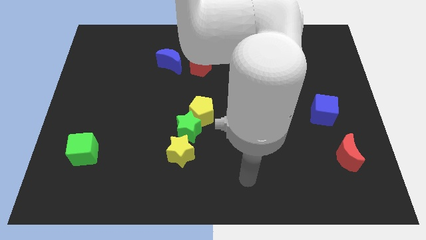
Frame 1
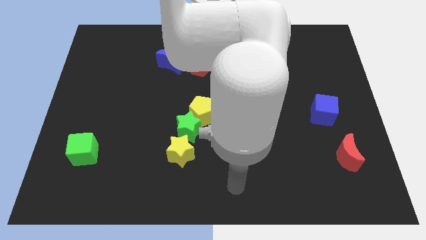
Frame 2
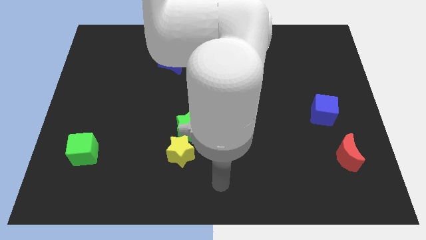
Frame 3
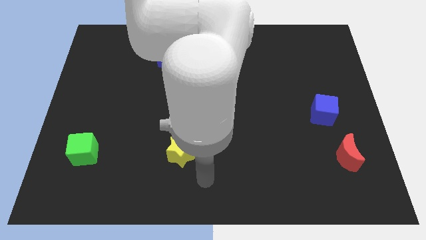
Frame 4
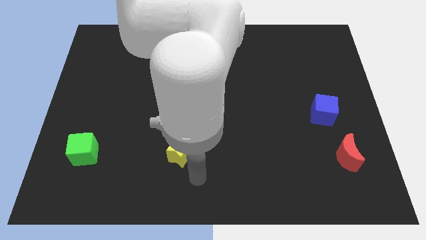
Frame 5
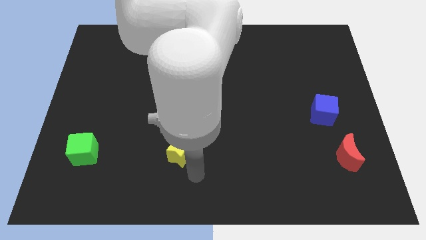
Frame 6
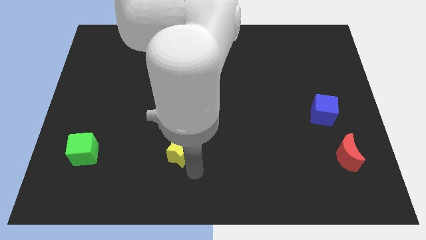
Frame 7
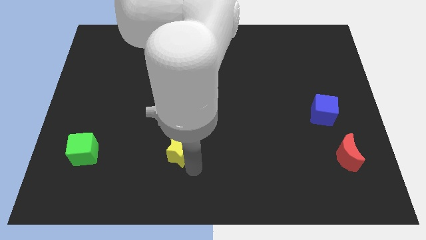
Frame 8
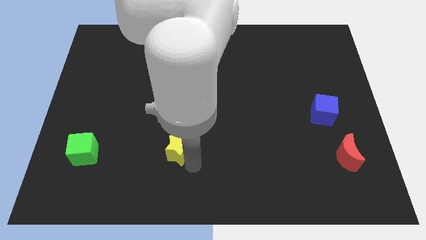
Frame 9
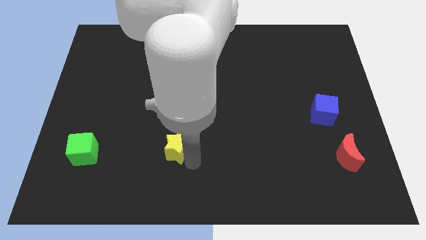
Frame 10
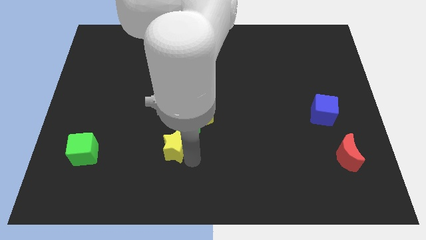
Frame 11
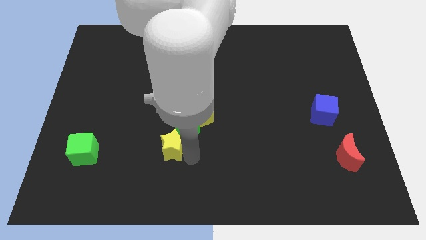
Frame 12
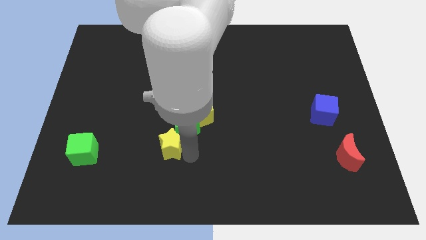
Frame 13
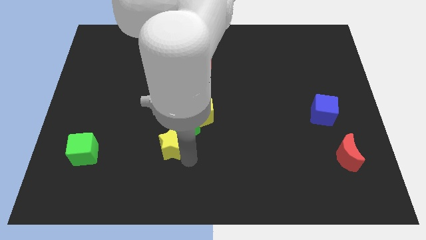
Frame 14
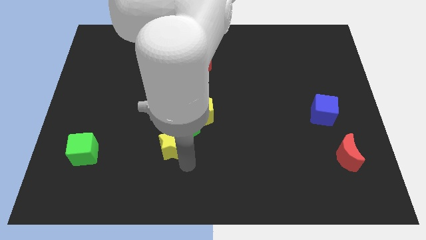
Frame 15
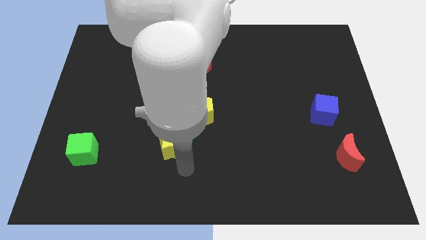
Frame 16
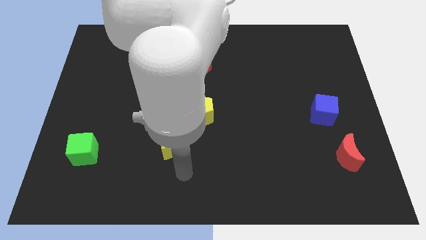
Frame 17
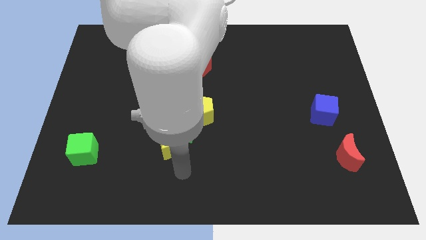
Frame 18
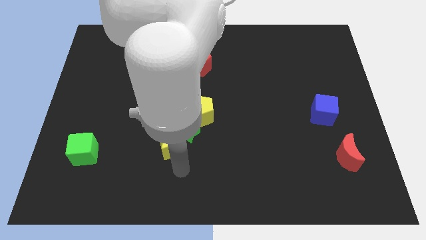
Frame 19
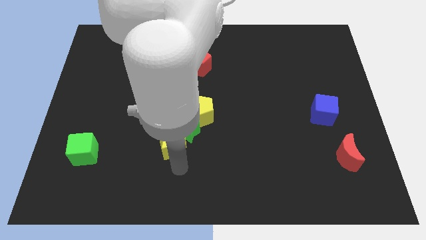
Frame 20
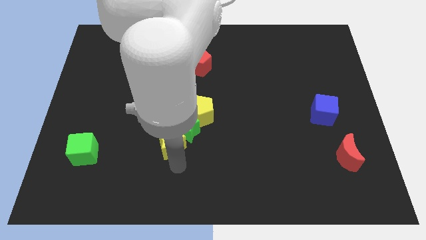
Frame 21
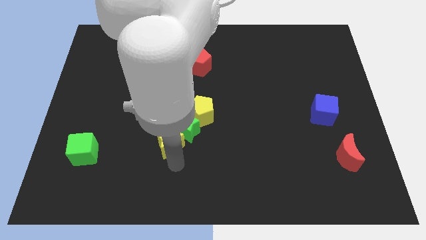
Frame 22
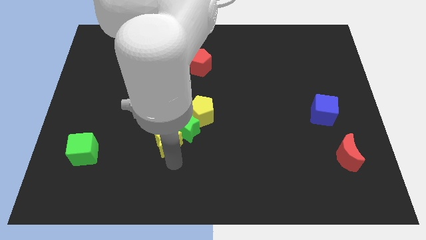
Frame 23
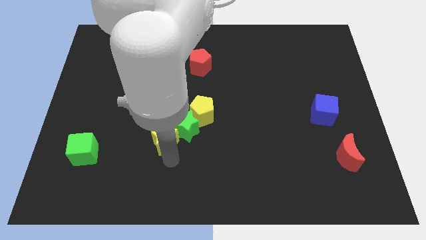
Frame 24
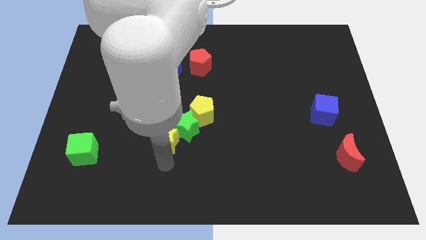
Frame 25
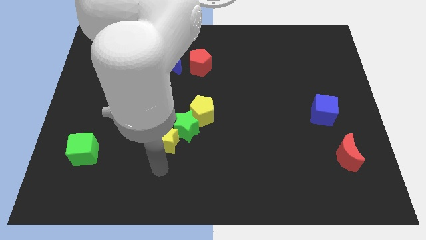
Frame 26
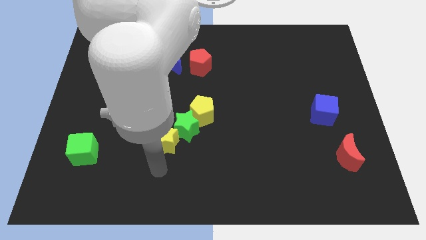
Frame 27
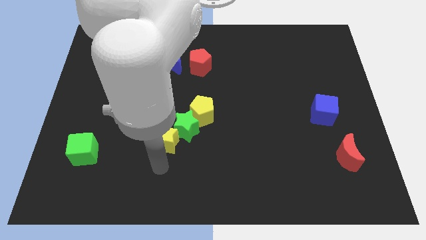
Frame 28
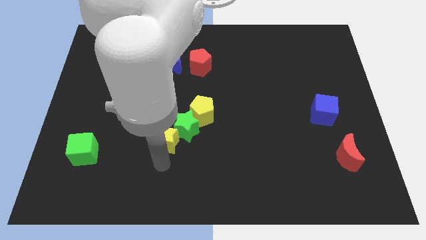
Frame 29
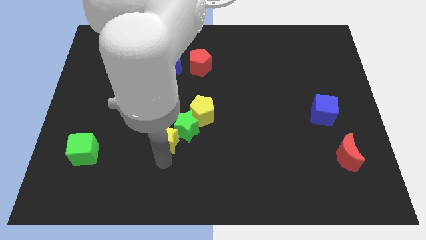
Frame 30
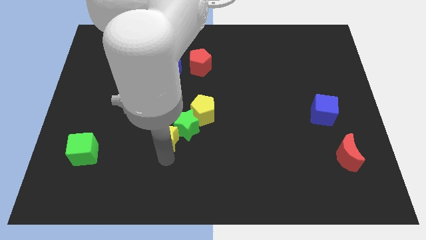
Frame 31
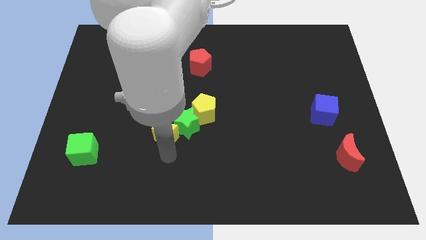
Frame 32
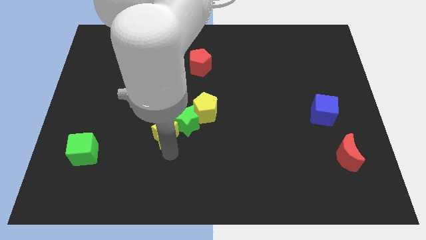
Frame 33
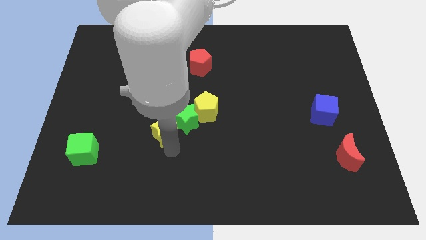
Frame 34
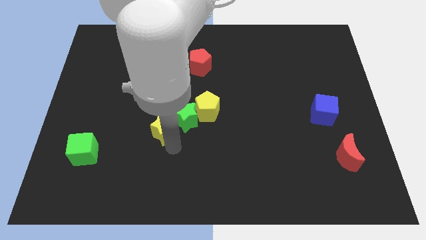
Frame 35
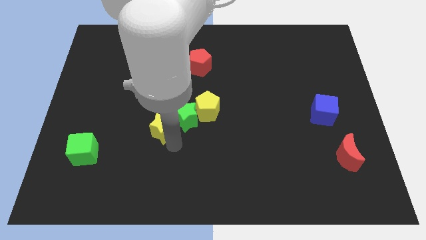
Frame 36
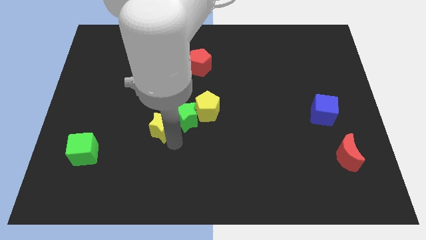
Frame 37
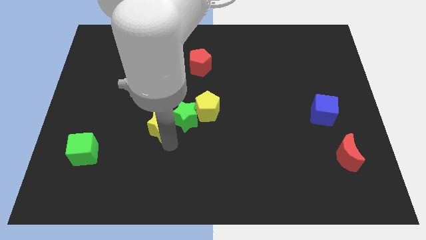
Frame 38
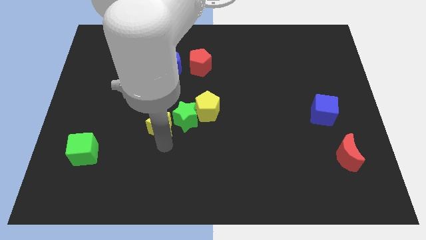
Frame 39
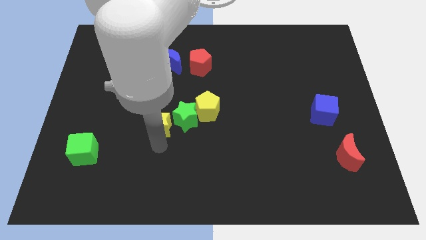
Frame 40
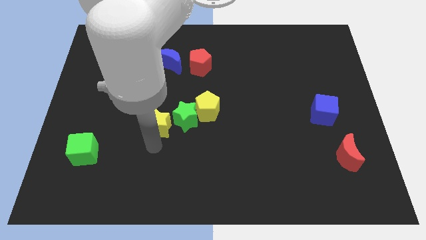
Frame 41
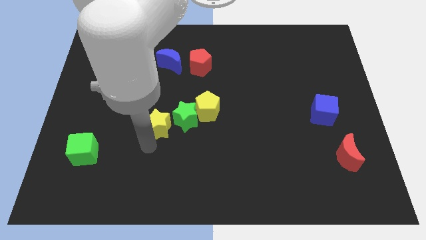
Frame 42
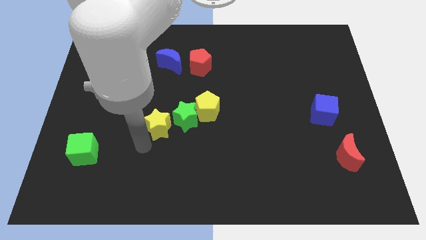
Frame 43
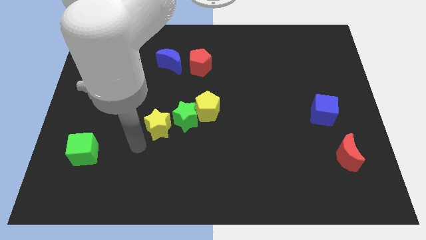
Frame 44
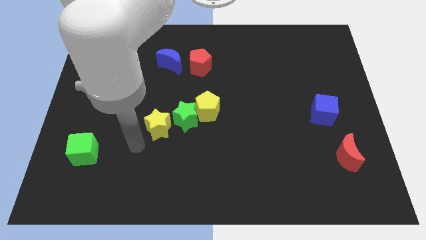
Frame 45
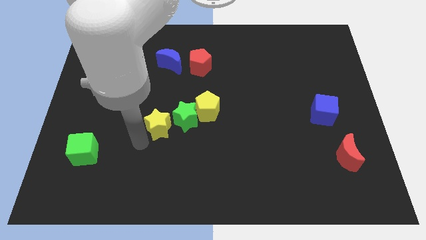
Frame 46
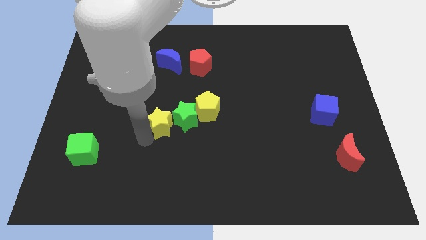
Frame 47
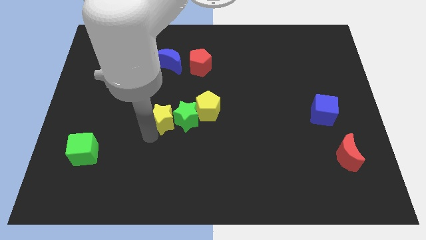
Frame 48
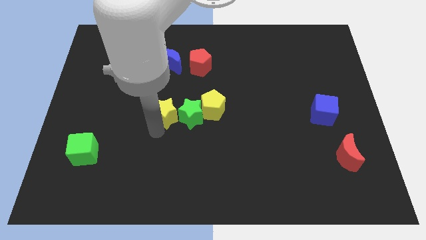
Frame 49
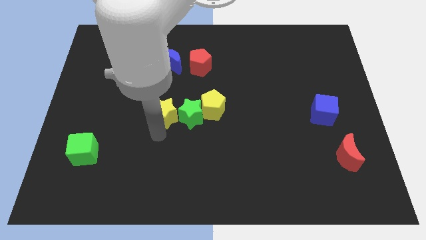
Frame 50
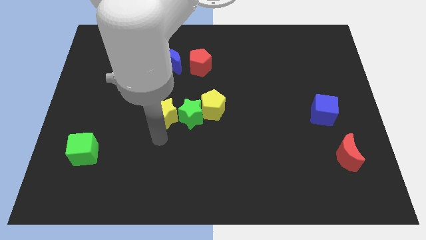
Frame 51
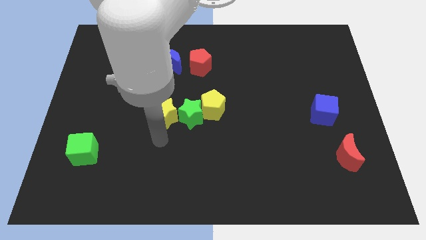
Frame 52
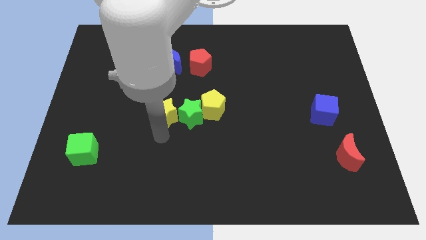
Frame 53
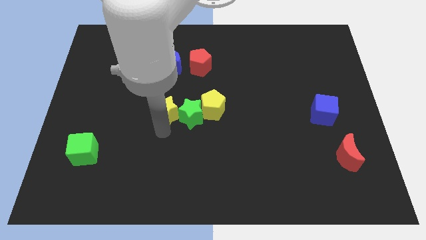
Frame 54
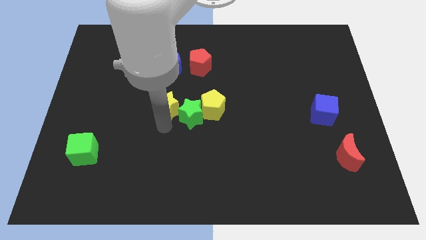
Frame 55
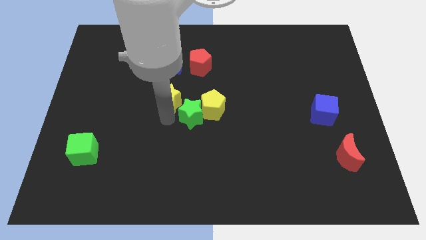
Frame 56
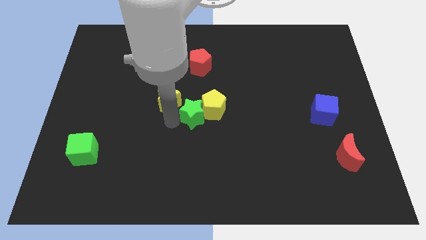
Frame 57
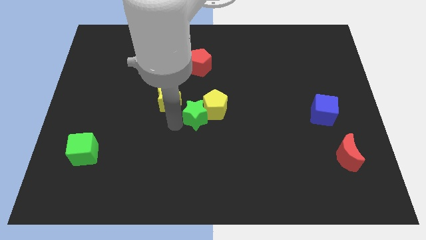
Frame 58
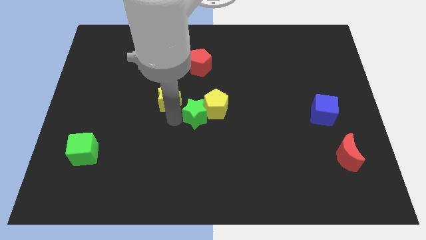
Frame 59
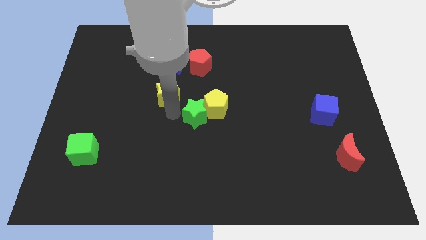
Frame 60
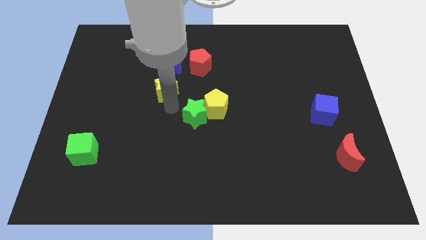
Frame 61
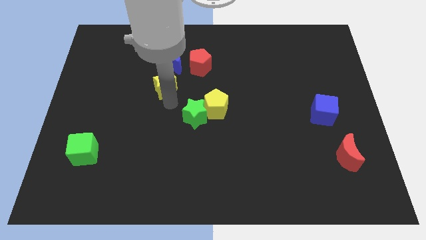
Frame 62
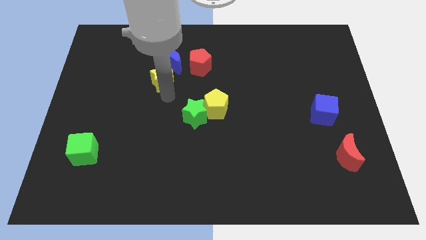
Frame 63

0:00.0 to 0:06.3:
move the yellow star to the blue moon

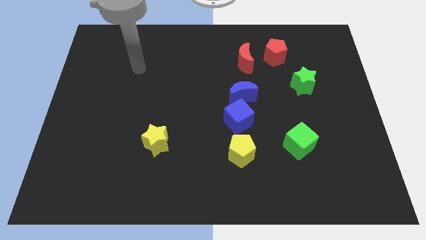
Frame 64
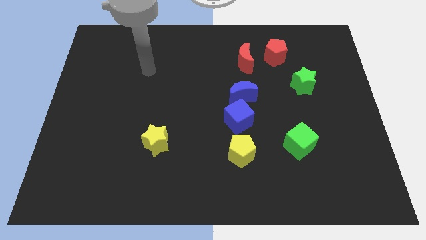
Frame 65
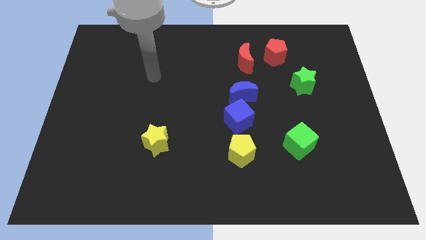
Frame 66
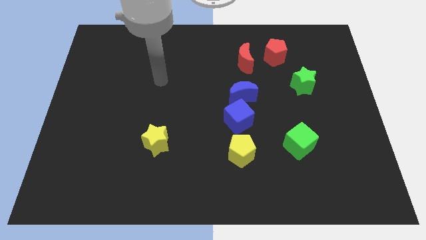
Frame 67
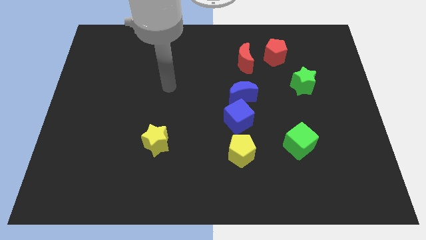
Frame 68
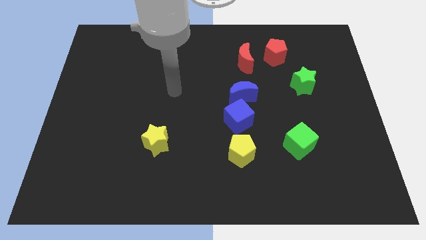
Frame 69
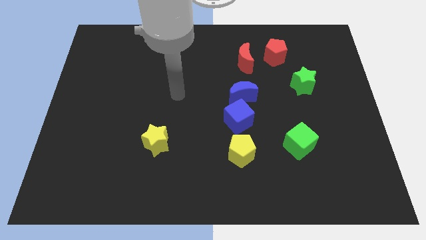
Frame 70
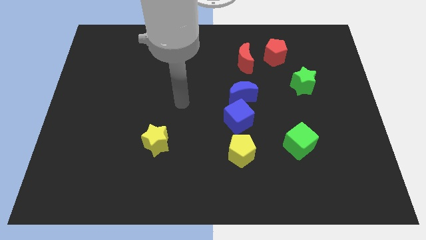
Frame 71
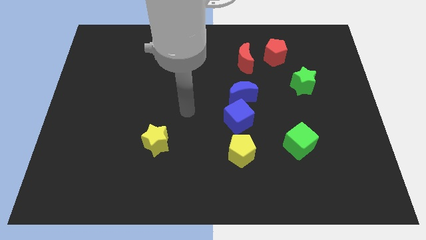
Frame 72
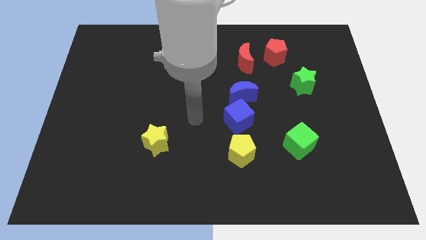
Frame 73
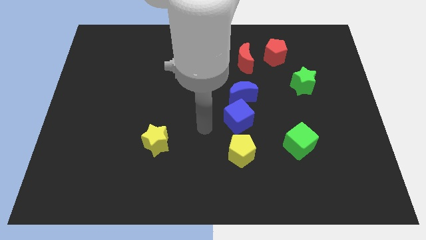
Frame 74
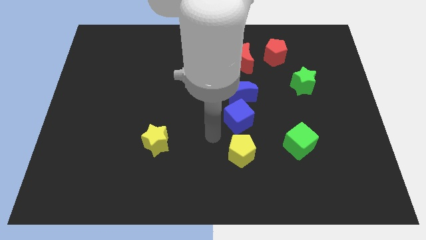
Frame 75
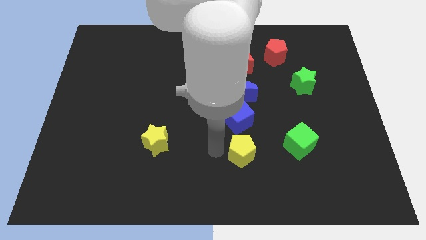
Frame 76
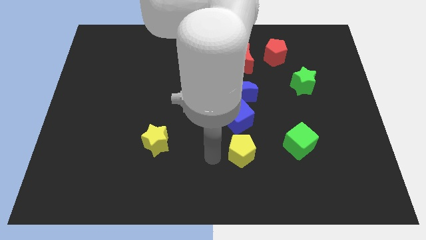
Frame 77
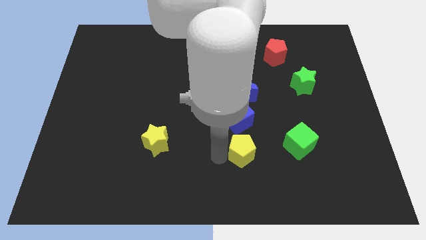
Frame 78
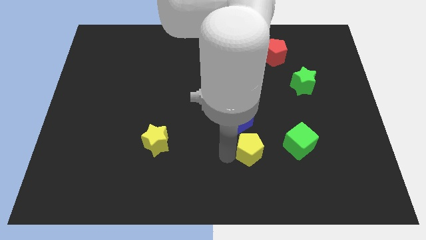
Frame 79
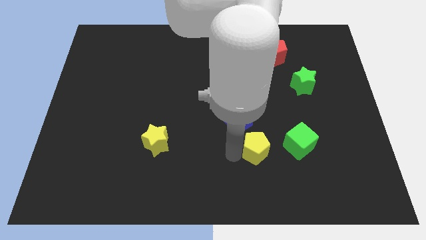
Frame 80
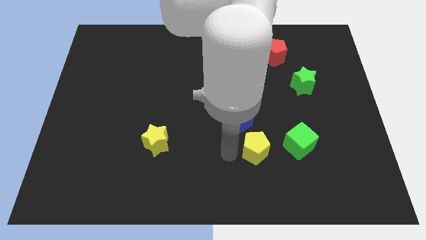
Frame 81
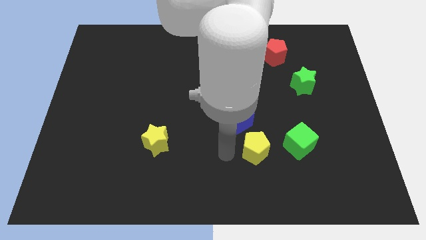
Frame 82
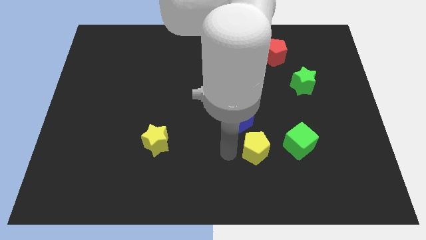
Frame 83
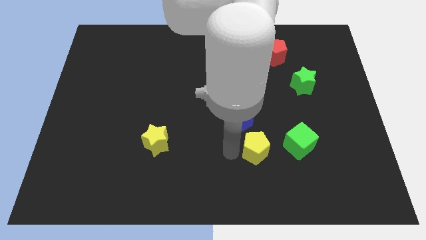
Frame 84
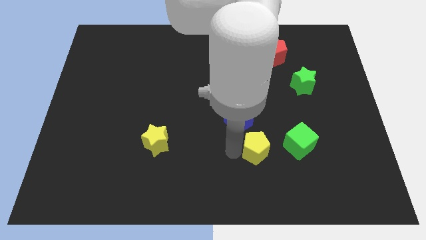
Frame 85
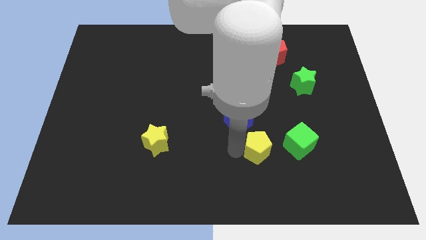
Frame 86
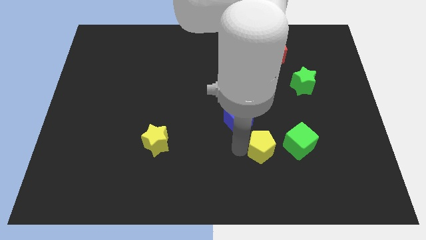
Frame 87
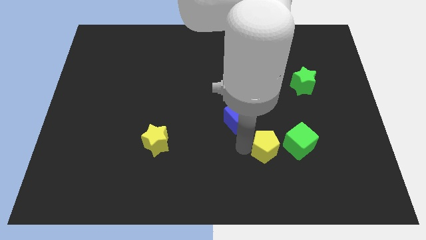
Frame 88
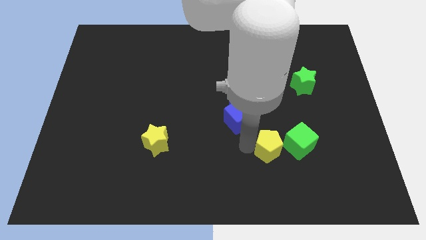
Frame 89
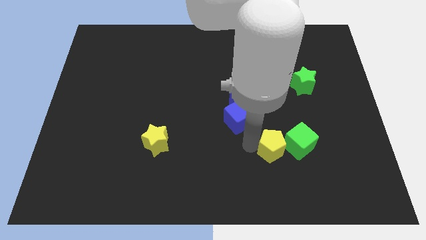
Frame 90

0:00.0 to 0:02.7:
put the yellow pentagon to the green cube
